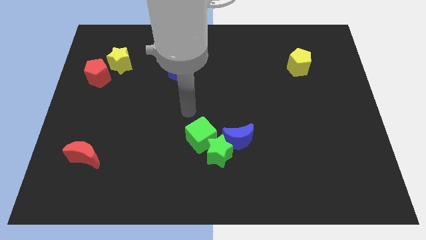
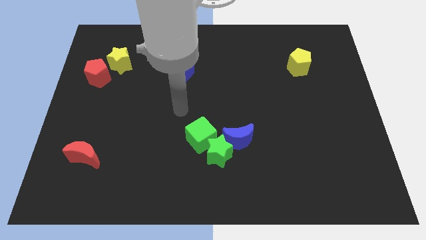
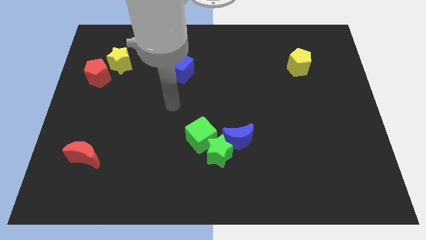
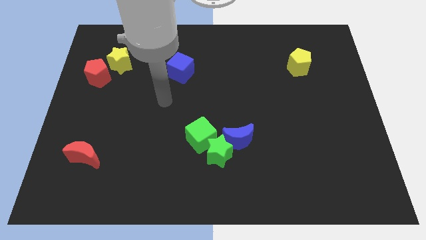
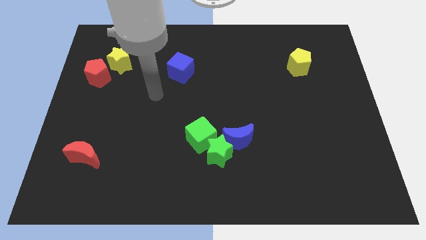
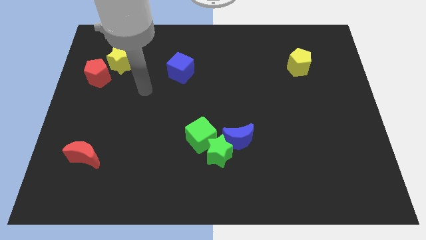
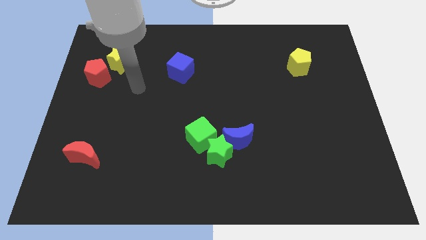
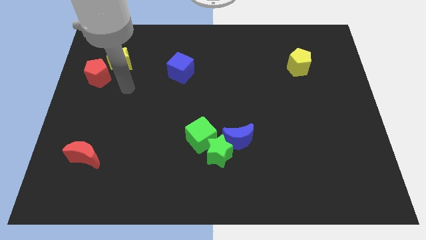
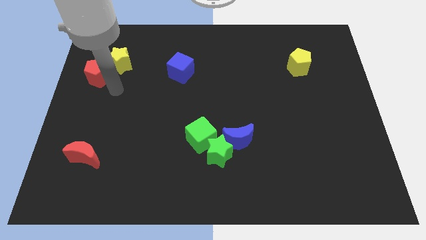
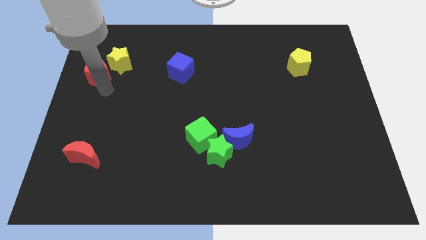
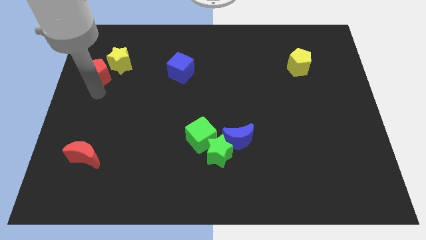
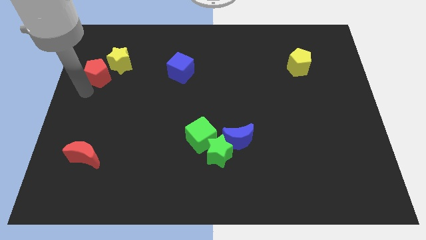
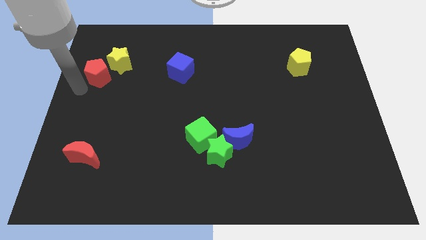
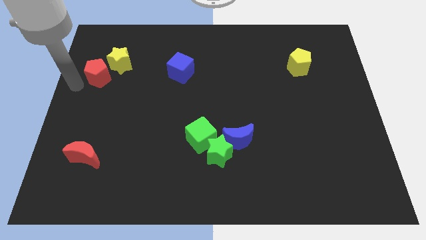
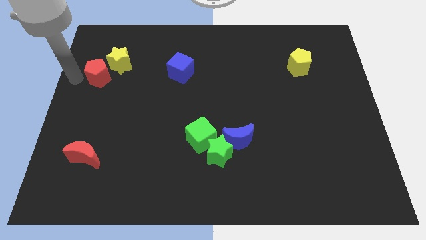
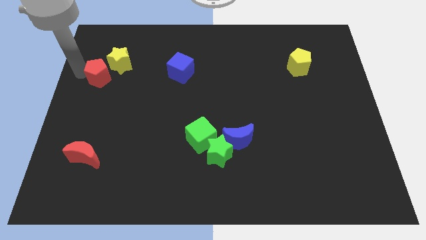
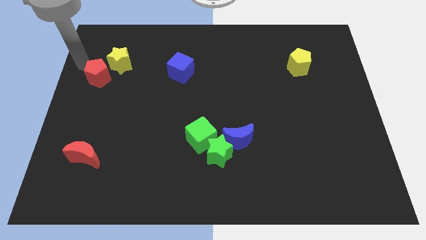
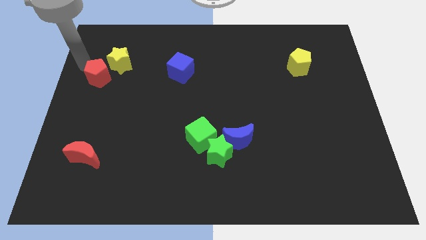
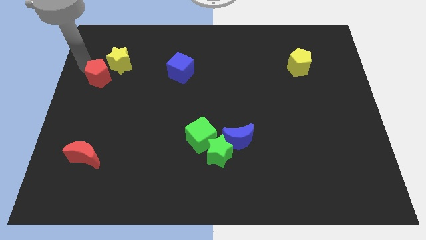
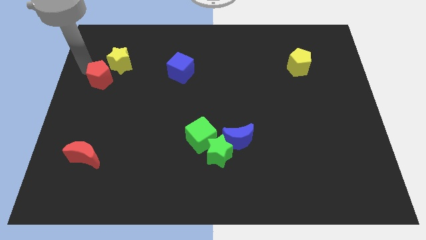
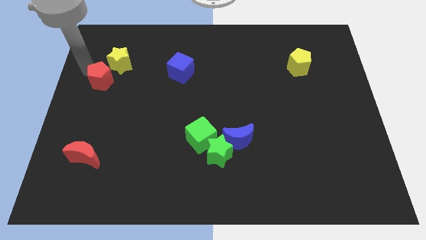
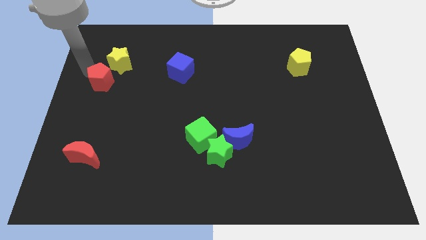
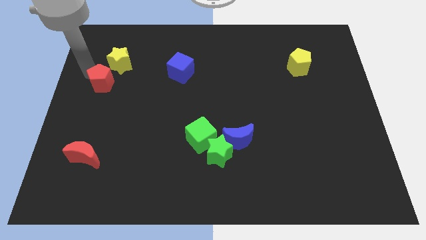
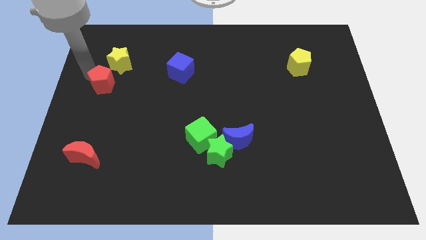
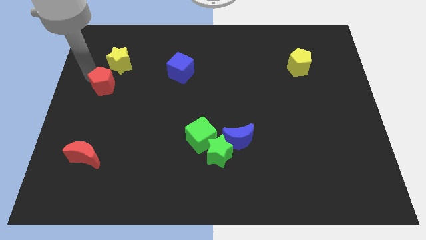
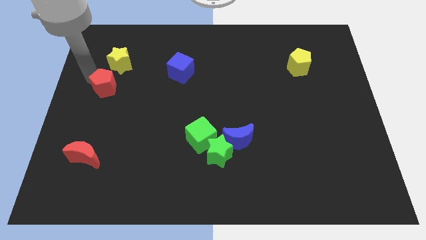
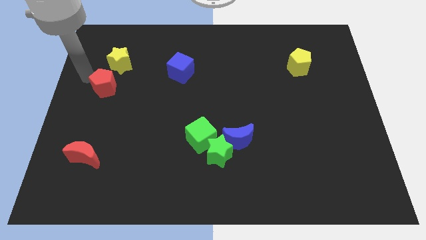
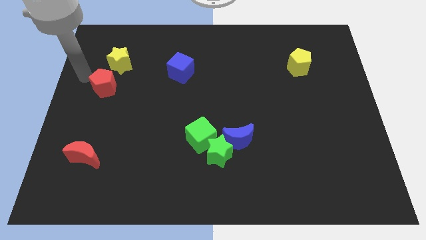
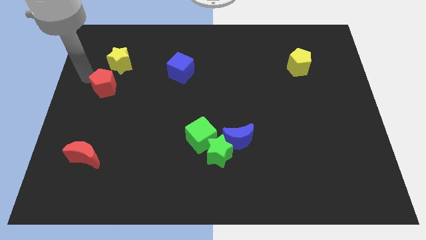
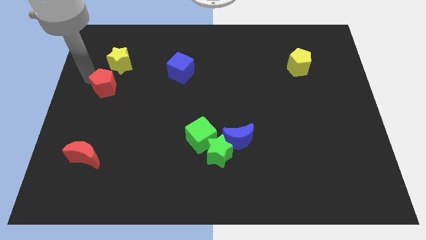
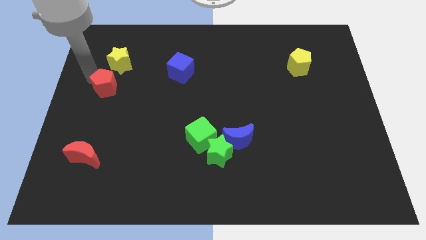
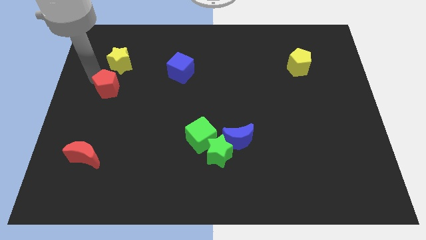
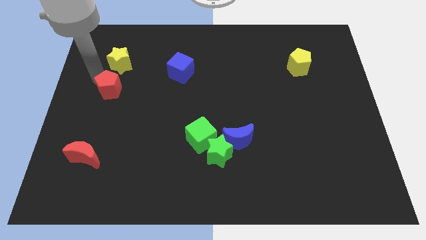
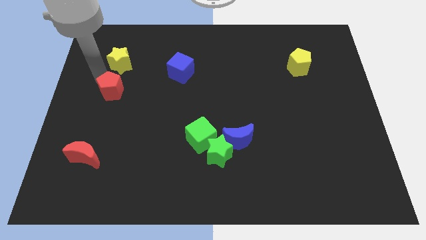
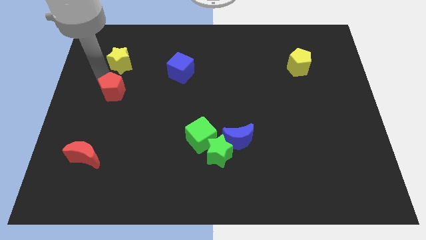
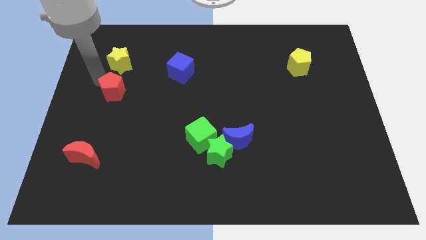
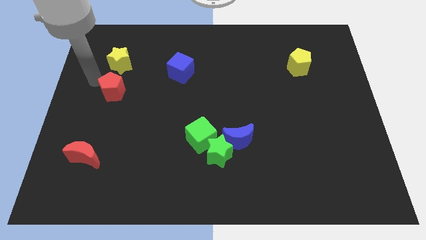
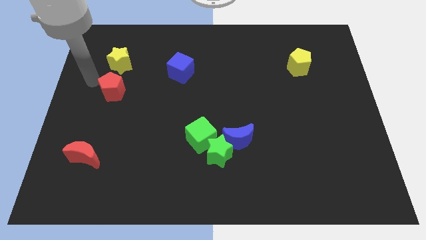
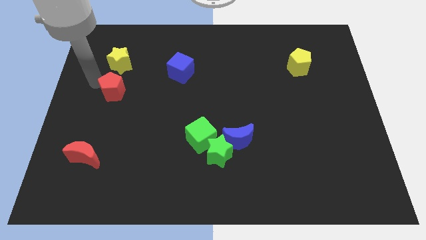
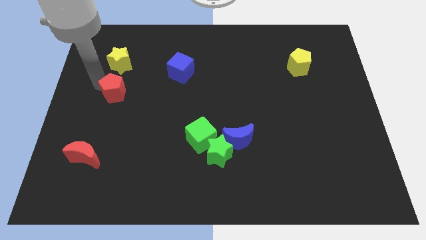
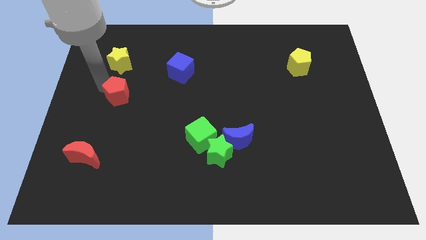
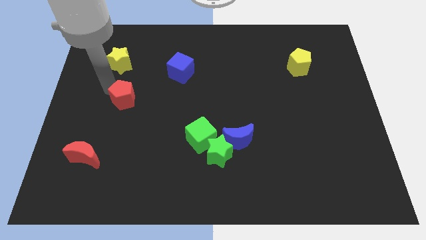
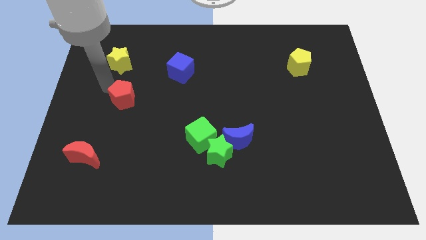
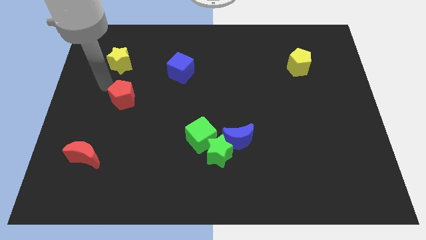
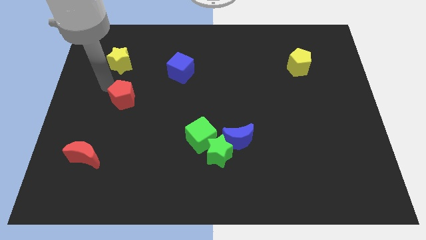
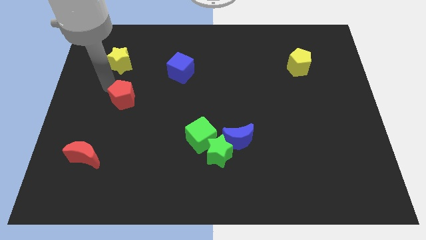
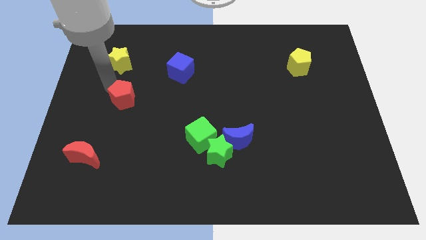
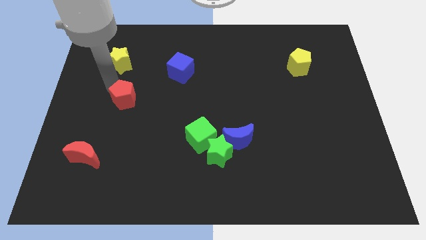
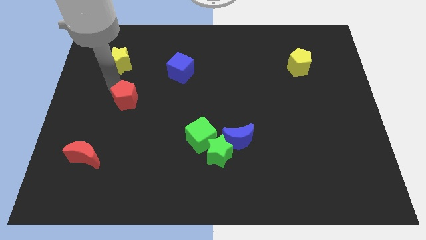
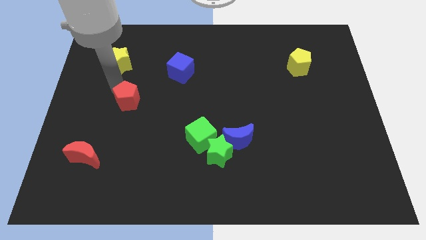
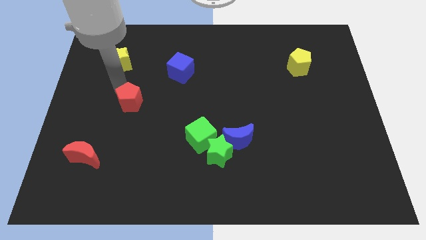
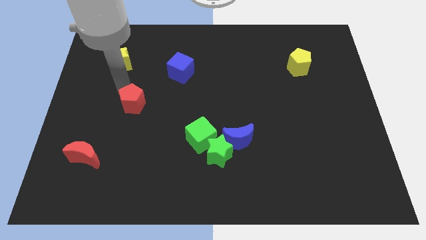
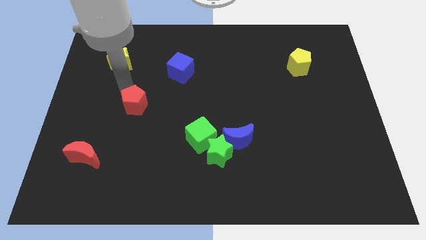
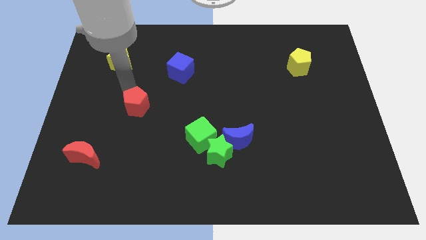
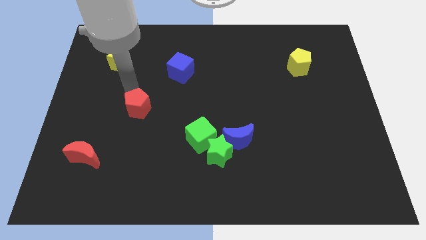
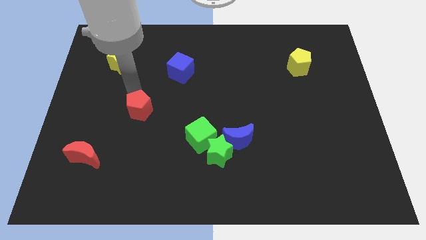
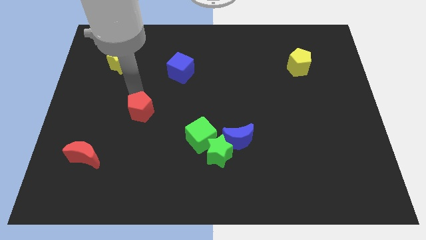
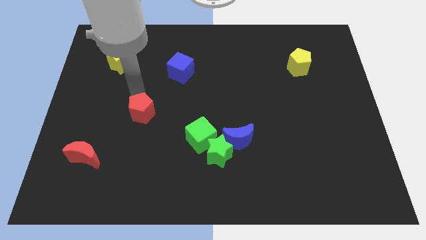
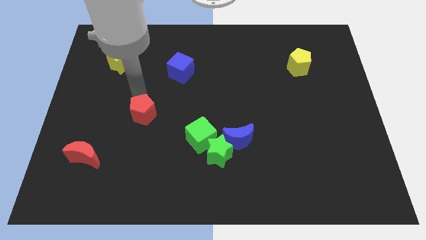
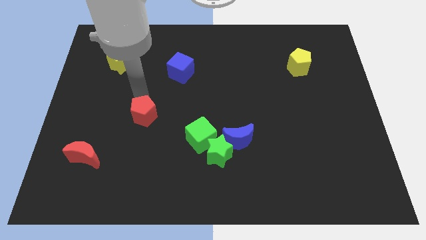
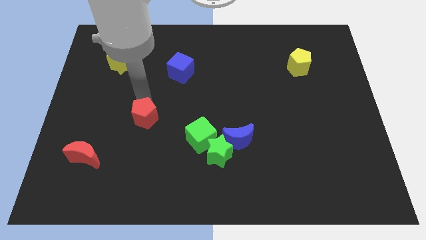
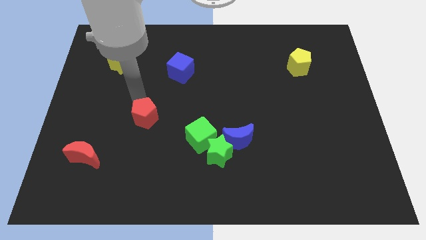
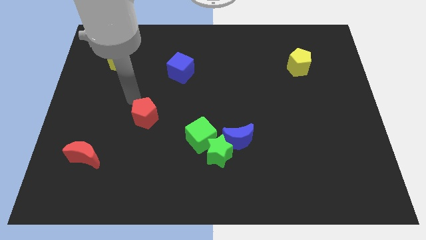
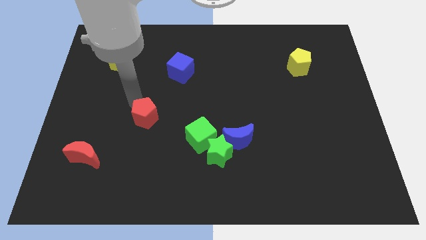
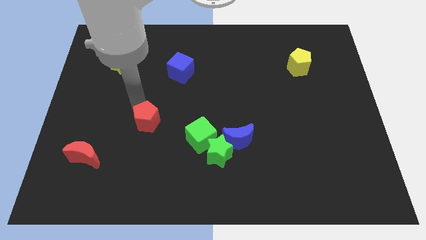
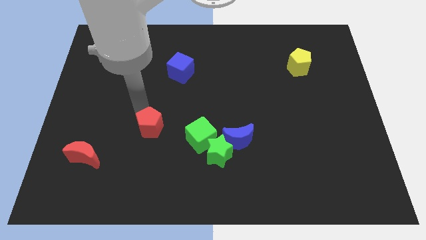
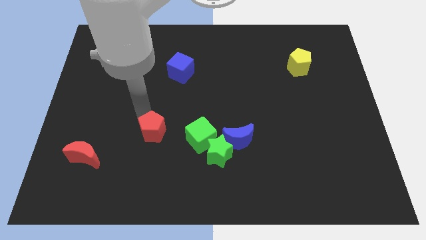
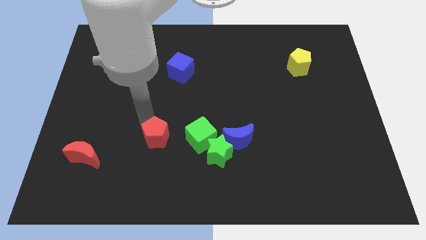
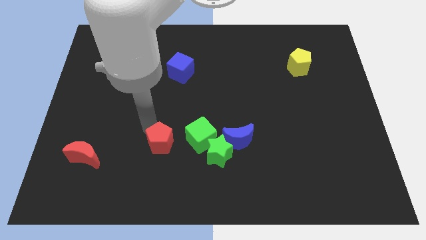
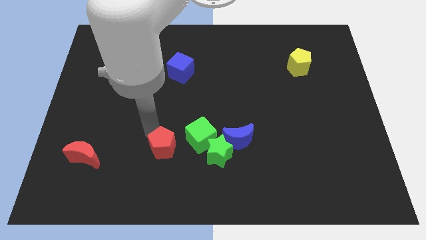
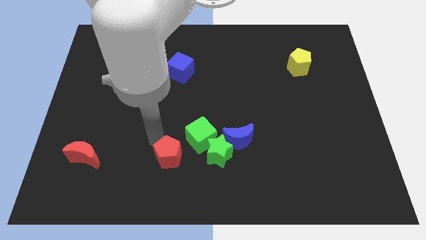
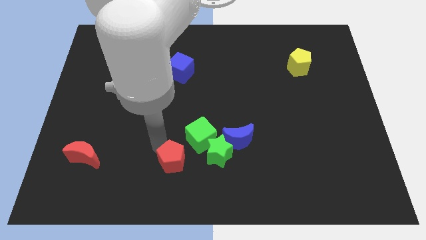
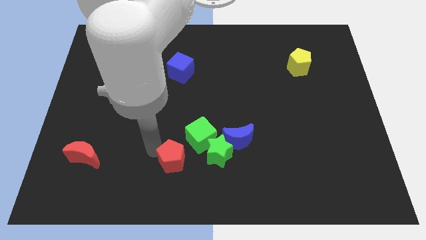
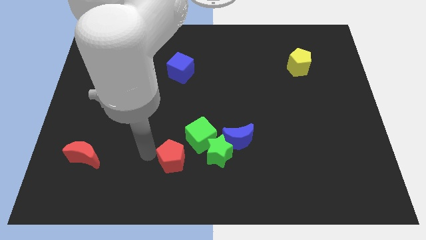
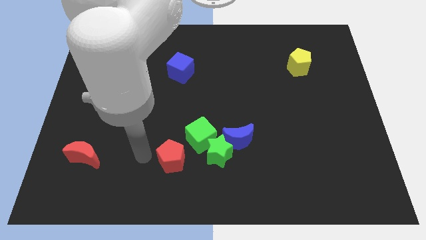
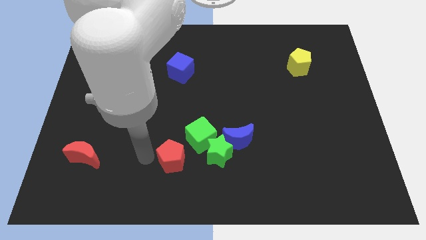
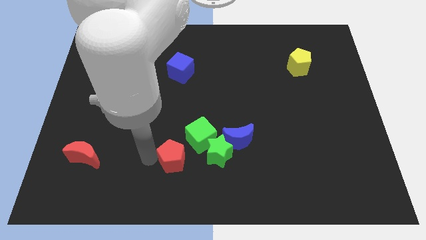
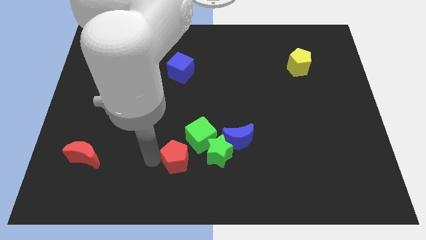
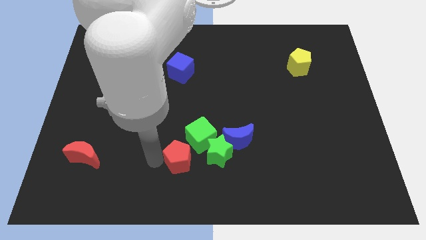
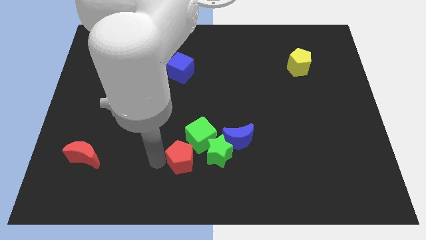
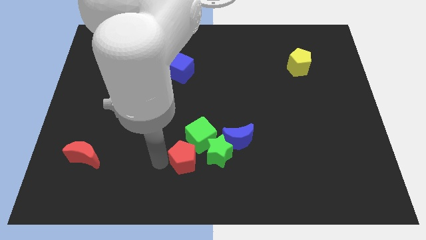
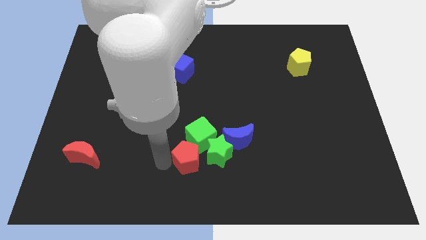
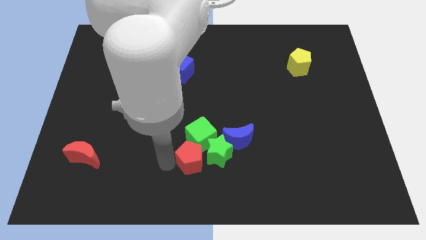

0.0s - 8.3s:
put the red pentagon to the bottom left of the blue moon
